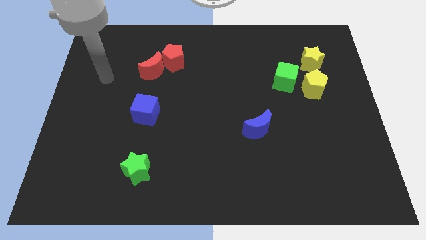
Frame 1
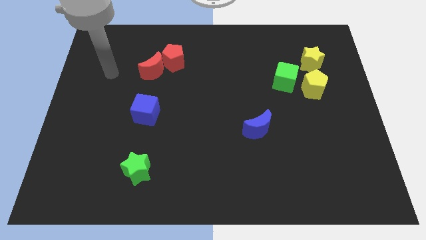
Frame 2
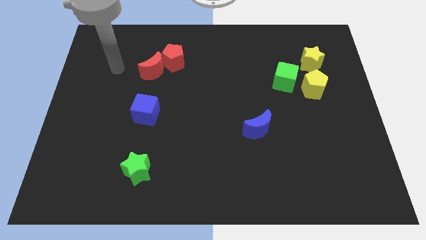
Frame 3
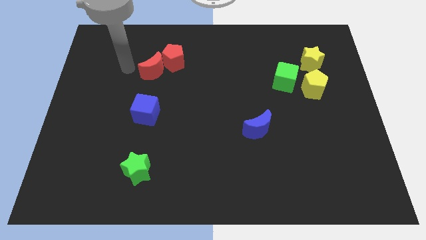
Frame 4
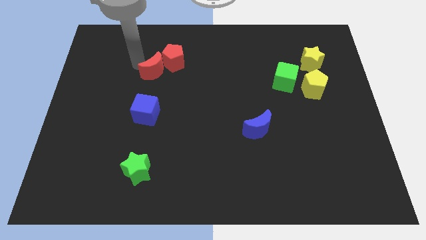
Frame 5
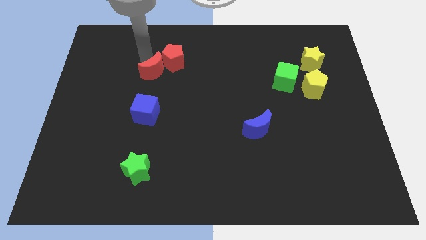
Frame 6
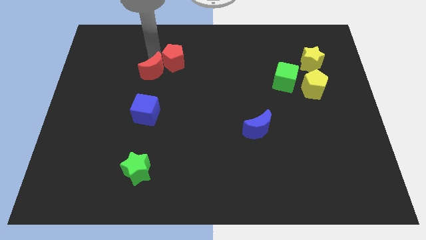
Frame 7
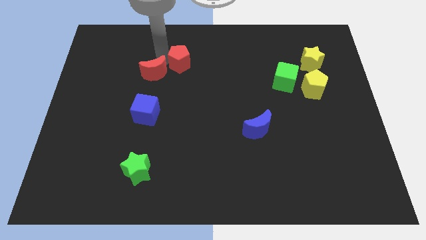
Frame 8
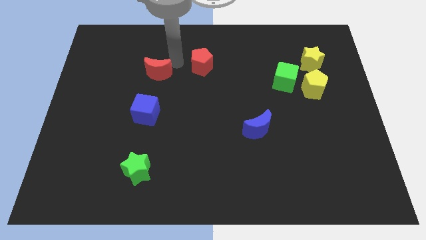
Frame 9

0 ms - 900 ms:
separate the red moon from the red pentagon

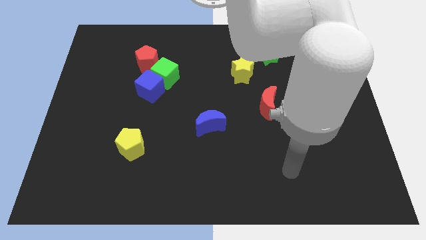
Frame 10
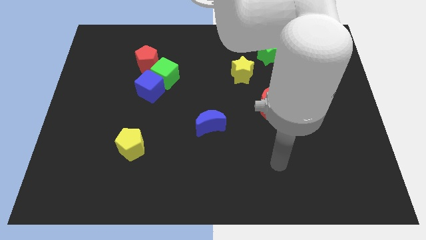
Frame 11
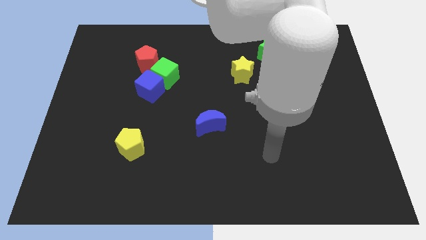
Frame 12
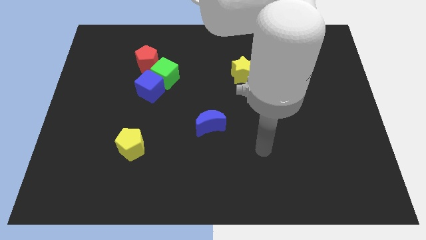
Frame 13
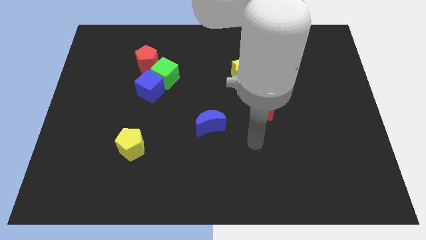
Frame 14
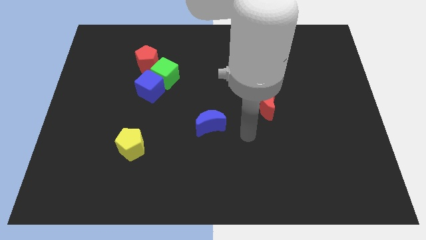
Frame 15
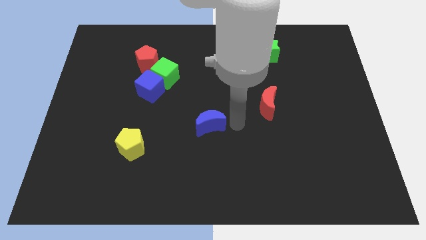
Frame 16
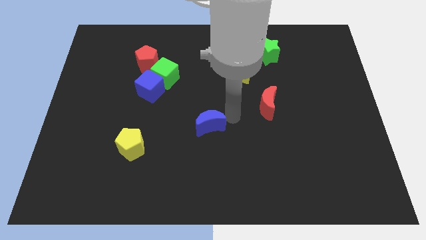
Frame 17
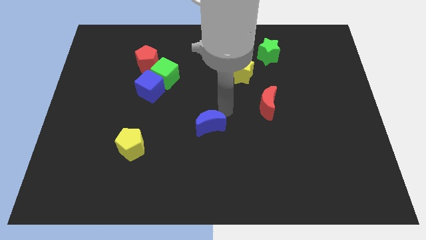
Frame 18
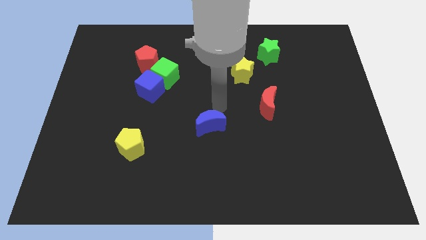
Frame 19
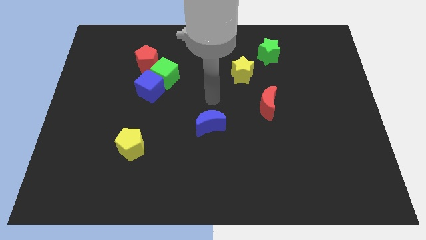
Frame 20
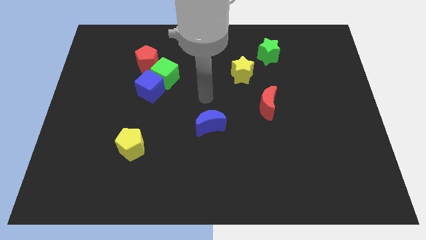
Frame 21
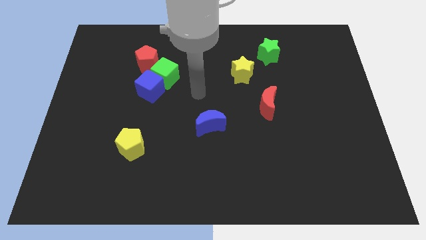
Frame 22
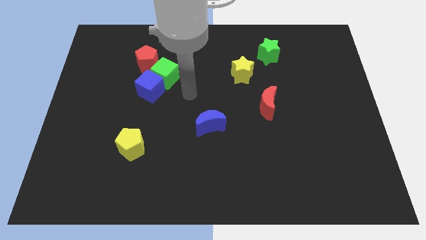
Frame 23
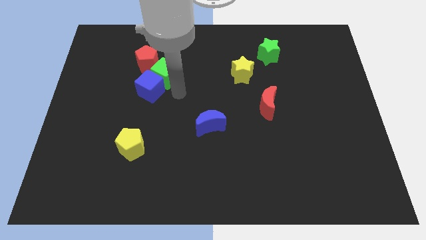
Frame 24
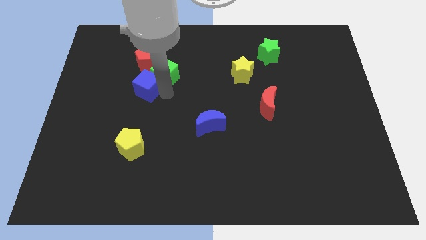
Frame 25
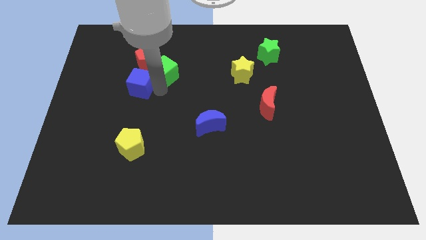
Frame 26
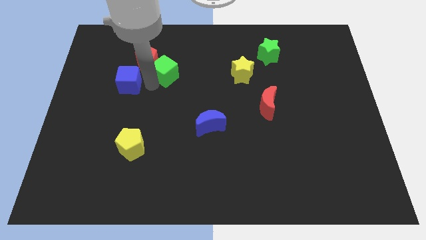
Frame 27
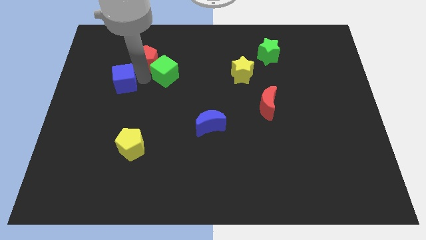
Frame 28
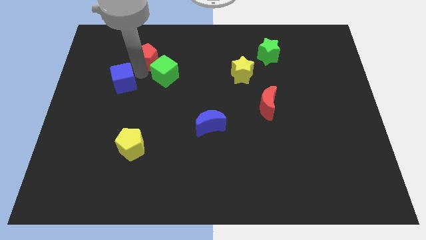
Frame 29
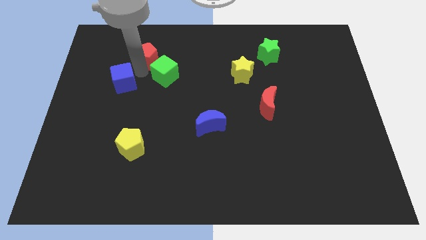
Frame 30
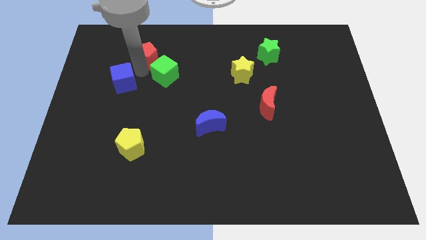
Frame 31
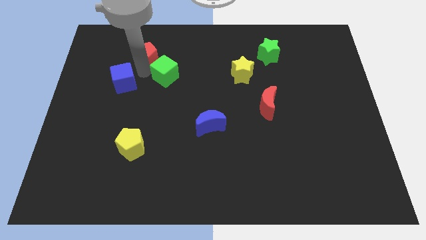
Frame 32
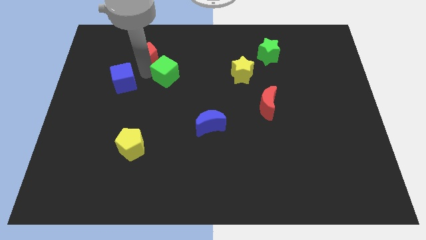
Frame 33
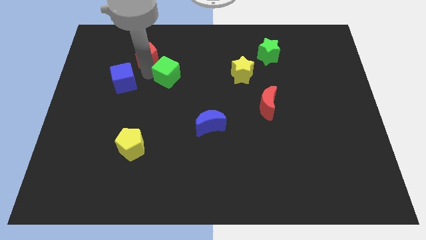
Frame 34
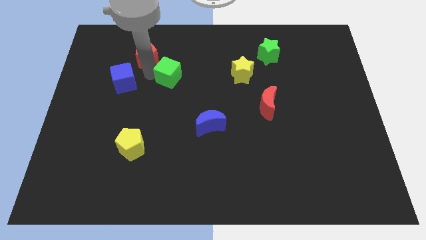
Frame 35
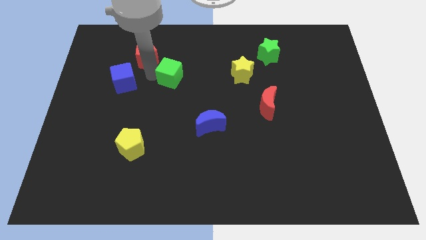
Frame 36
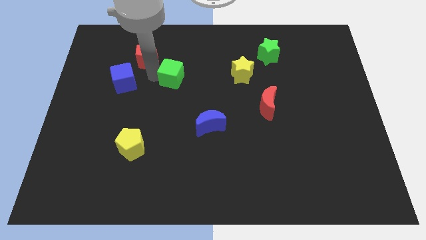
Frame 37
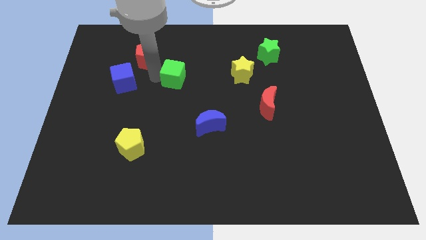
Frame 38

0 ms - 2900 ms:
move the green cube away from the blue cube and red pentagon

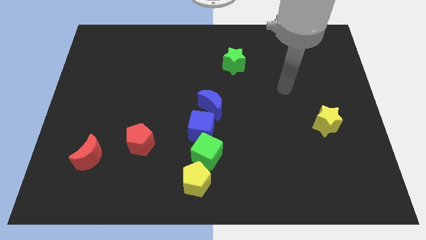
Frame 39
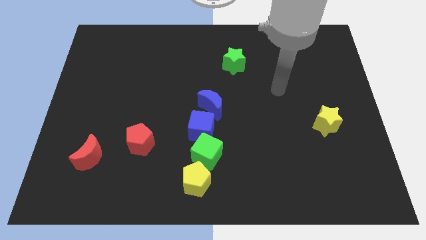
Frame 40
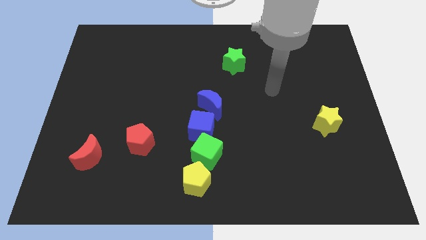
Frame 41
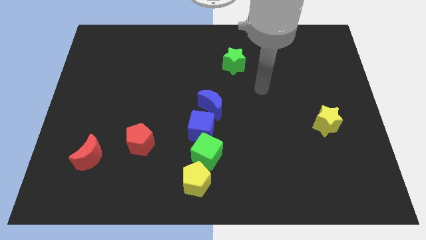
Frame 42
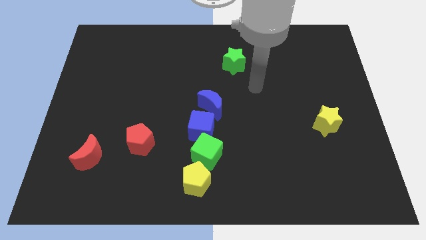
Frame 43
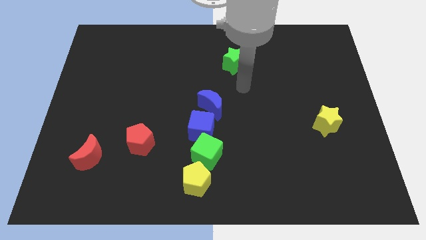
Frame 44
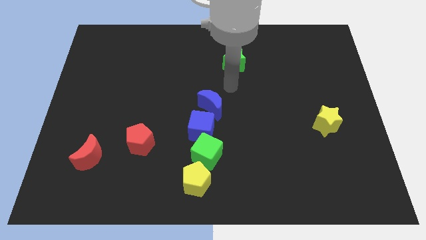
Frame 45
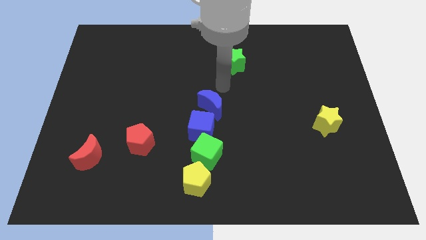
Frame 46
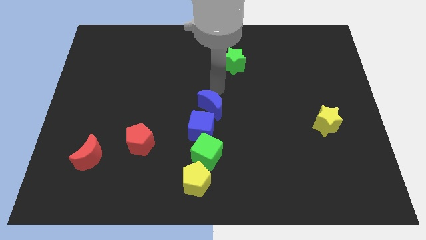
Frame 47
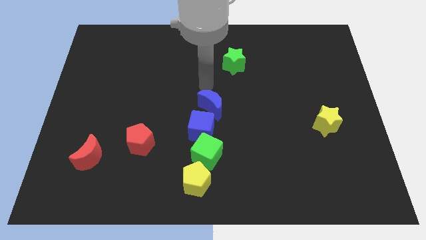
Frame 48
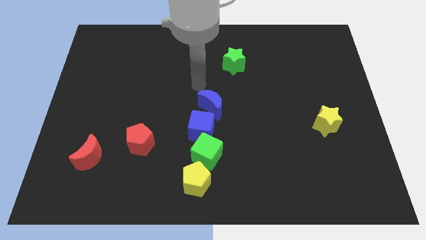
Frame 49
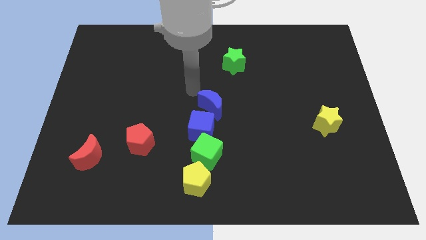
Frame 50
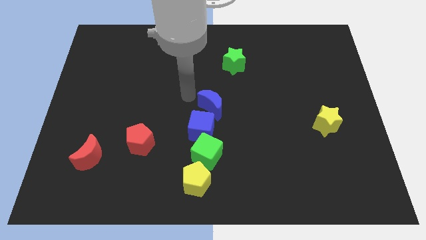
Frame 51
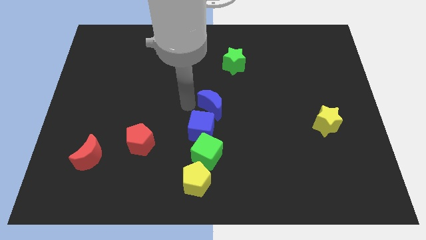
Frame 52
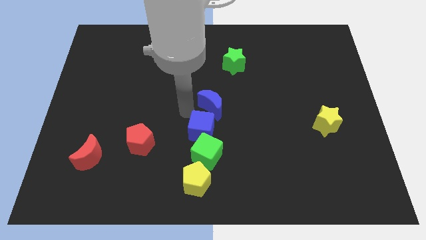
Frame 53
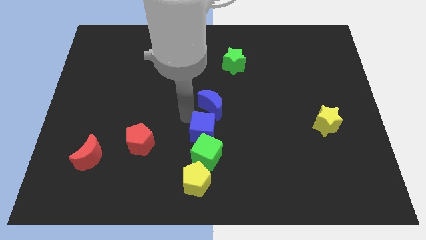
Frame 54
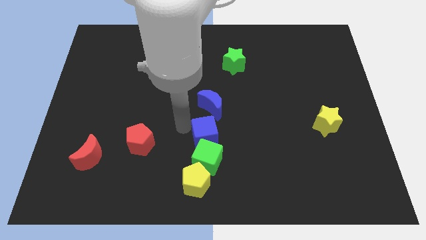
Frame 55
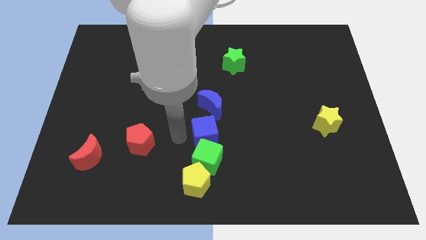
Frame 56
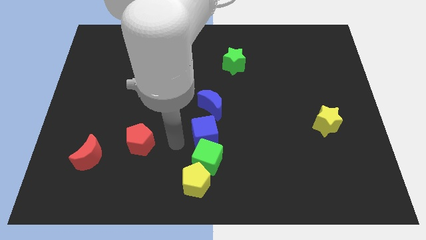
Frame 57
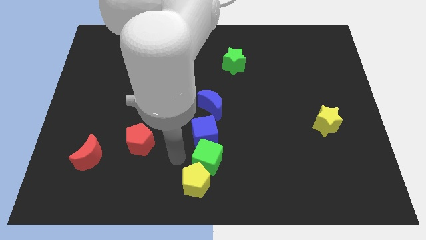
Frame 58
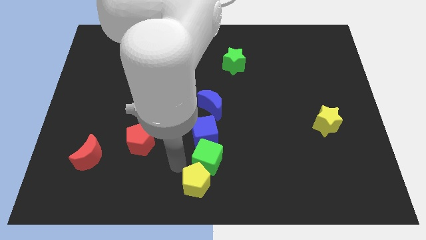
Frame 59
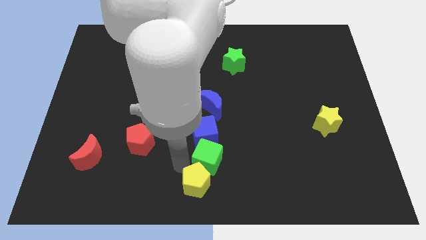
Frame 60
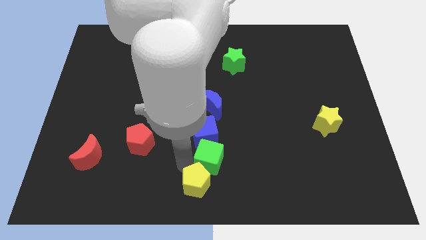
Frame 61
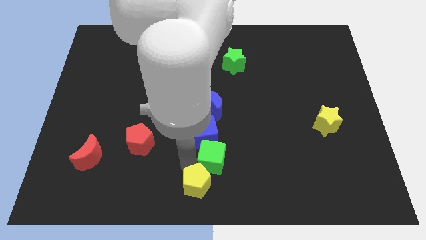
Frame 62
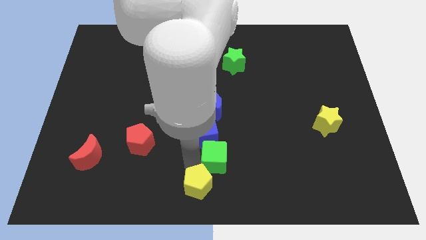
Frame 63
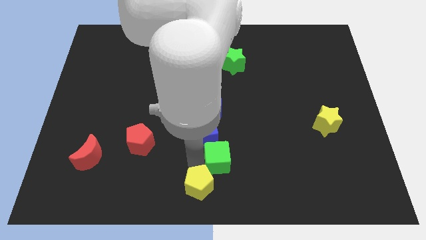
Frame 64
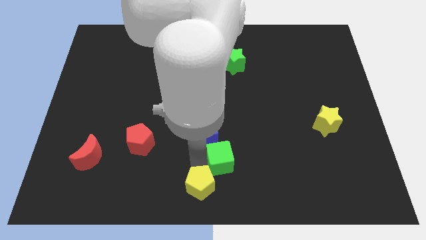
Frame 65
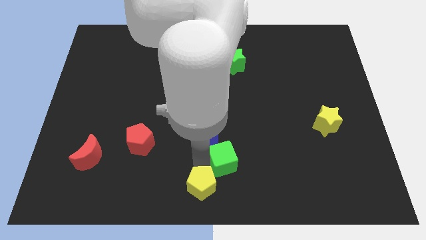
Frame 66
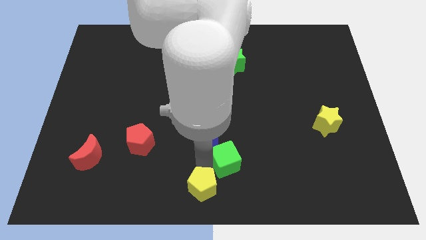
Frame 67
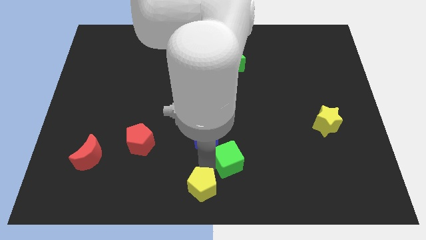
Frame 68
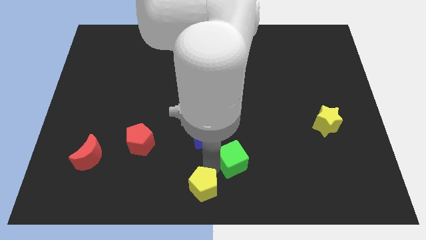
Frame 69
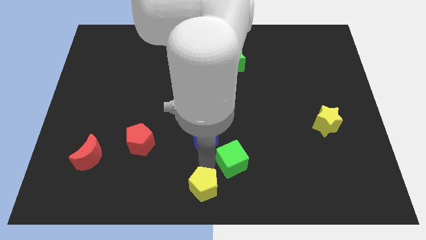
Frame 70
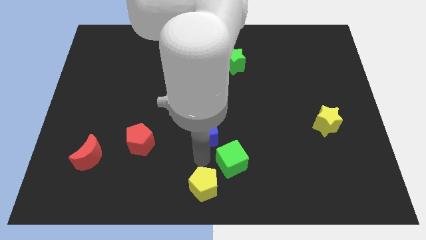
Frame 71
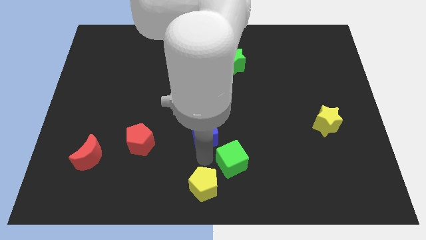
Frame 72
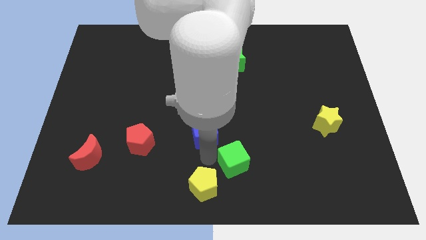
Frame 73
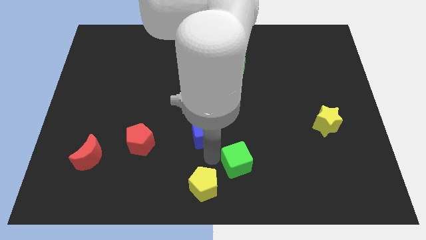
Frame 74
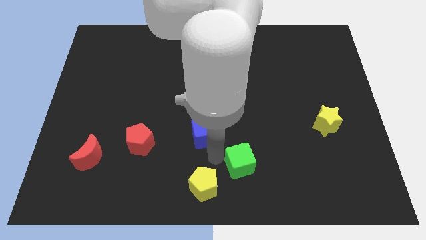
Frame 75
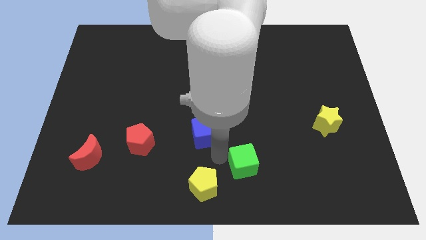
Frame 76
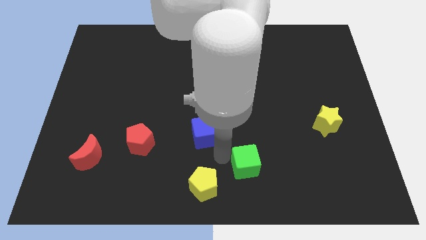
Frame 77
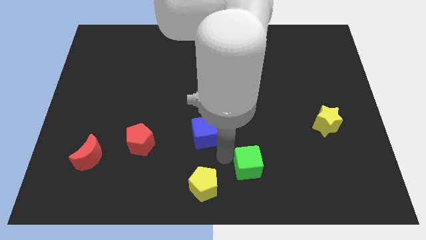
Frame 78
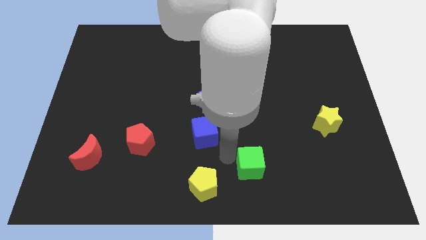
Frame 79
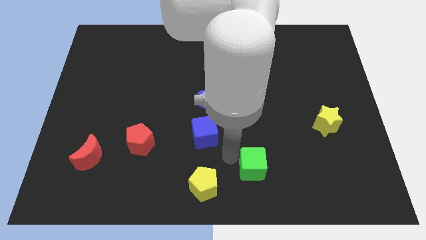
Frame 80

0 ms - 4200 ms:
separate the green cube from the blue cube and yellow pentagon

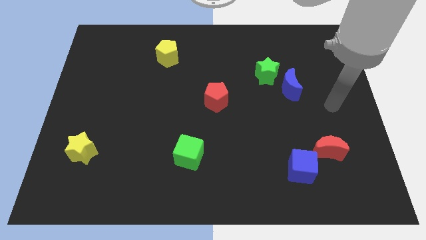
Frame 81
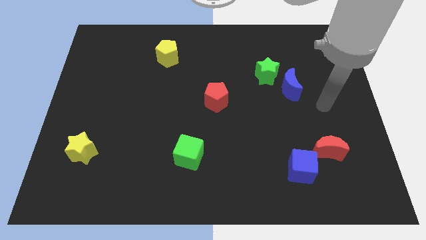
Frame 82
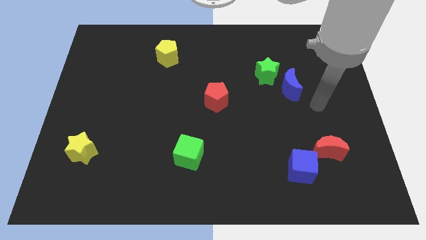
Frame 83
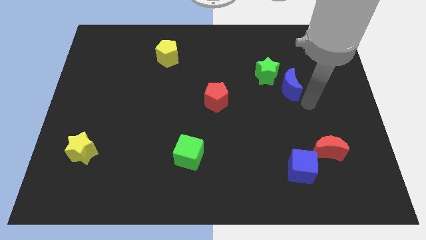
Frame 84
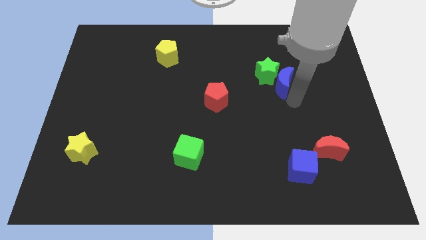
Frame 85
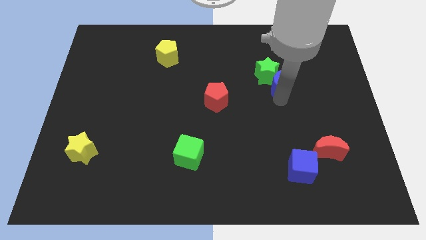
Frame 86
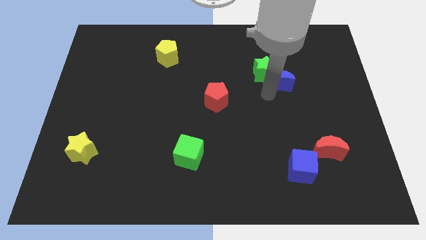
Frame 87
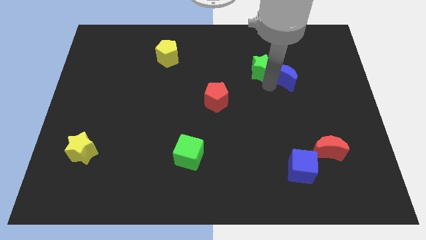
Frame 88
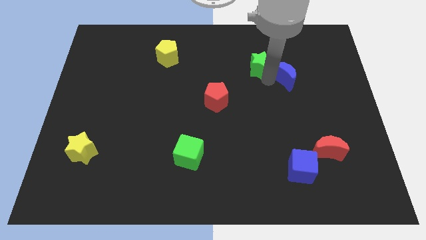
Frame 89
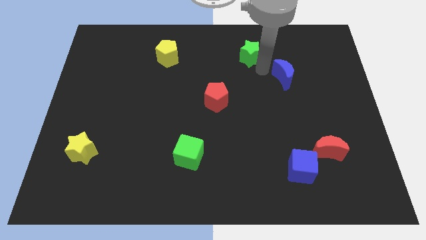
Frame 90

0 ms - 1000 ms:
move the blue moon away from the green star

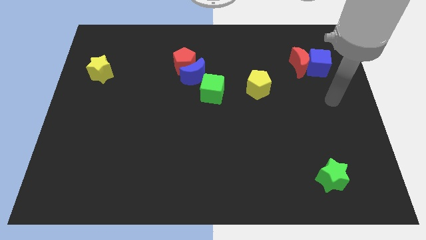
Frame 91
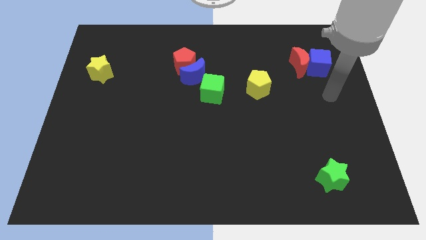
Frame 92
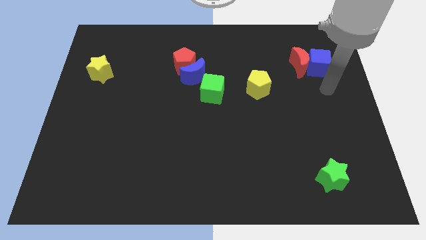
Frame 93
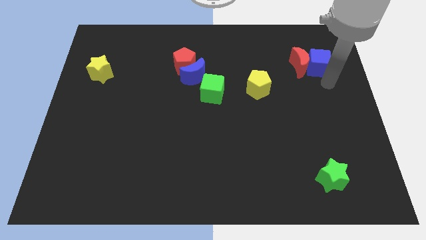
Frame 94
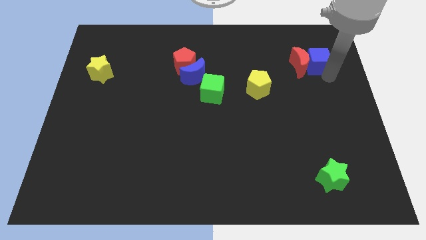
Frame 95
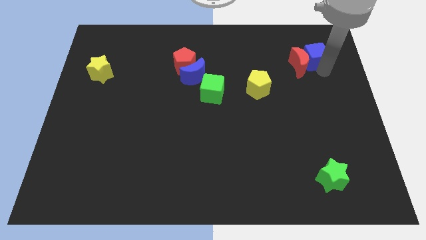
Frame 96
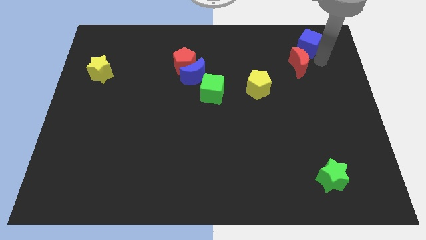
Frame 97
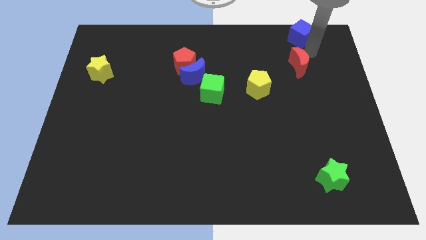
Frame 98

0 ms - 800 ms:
pull the red moon apart from the blue cube
